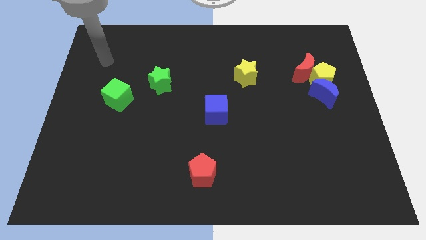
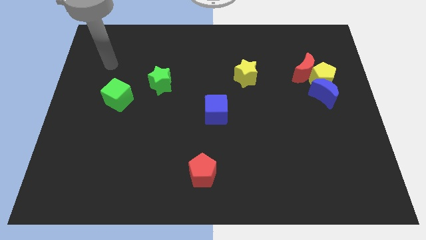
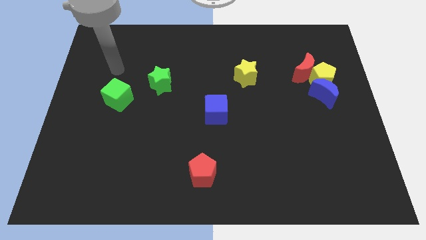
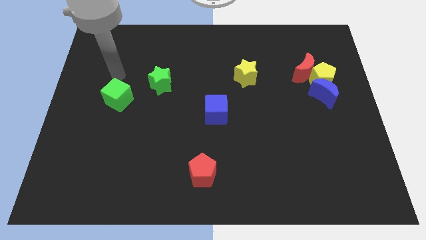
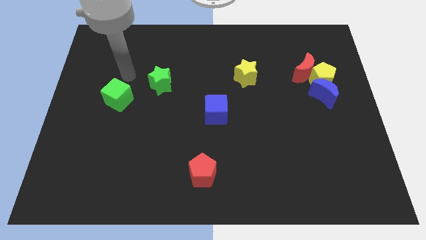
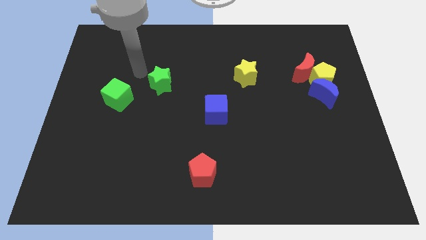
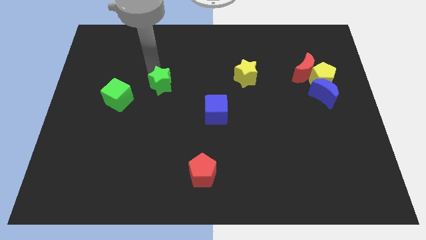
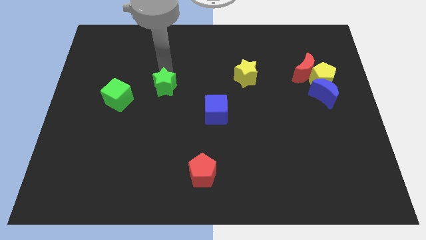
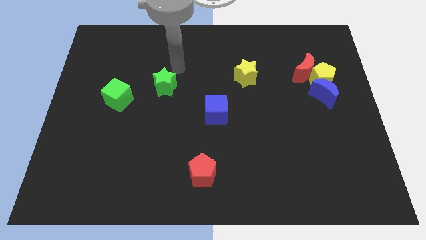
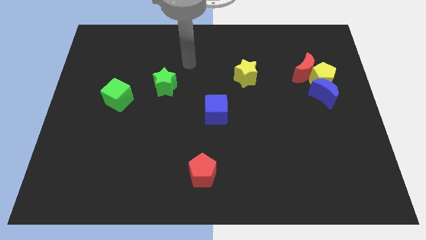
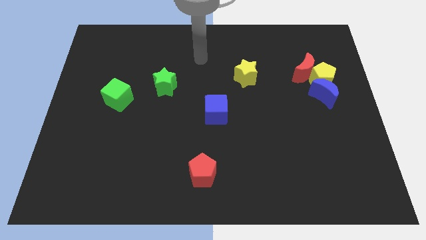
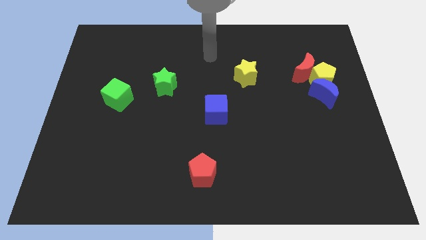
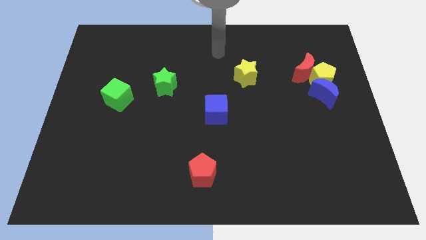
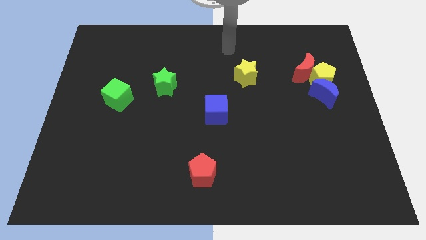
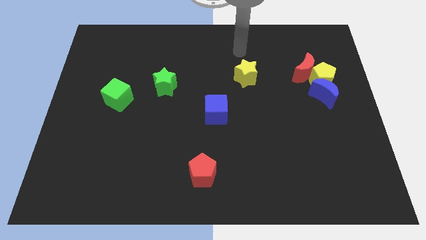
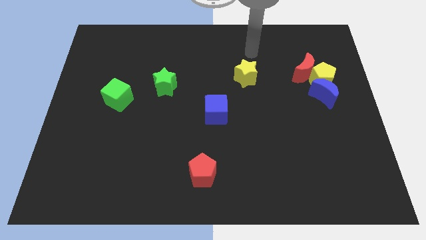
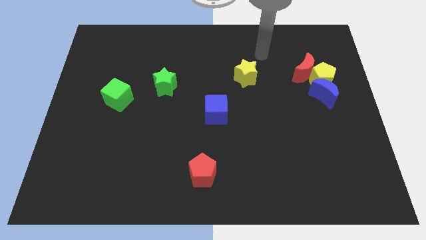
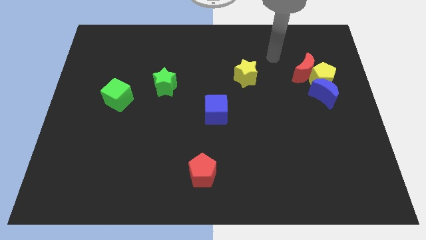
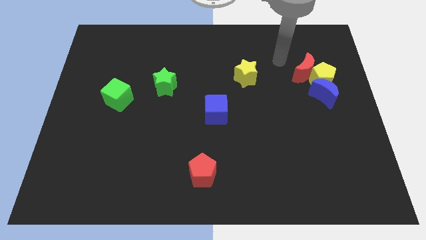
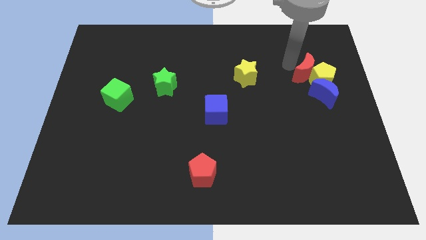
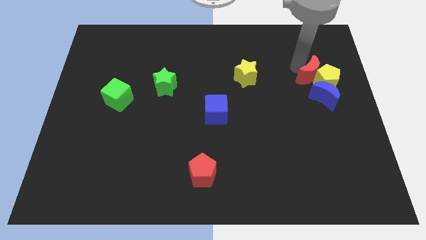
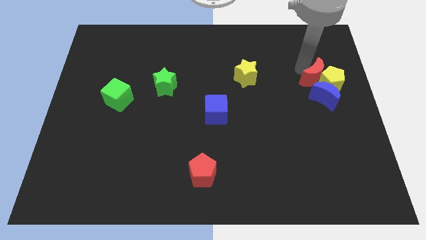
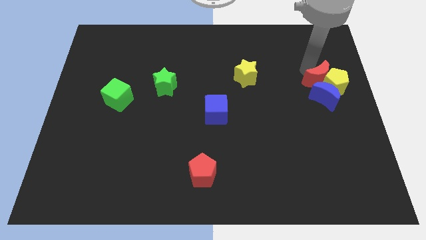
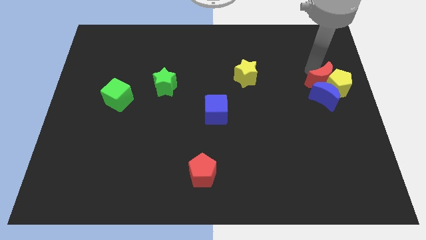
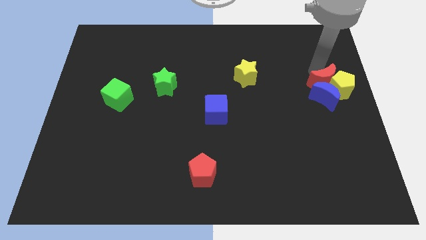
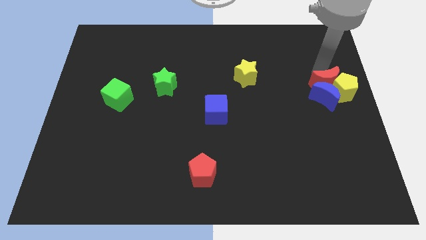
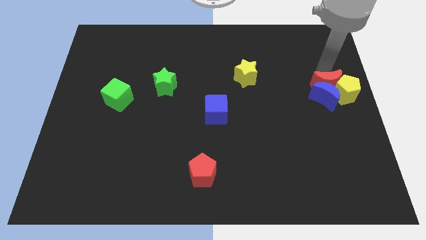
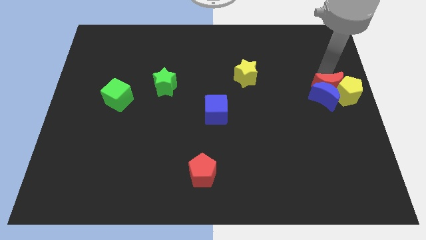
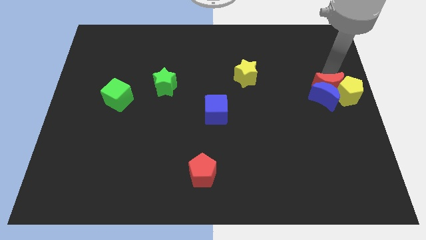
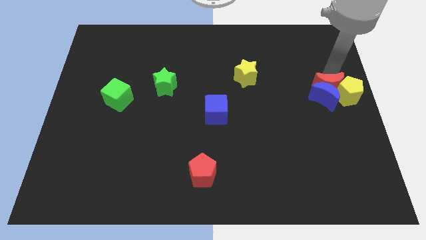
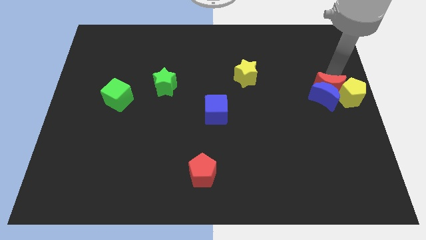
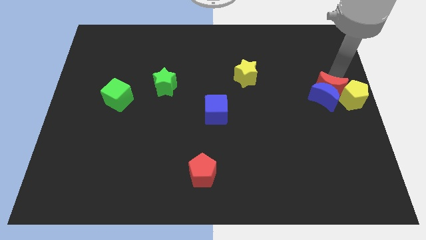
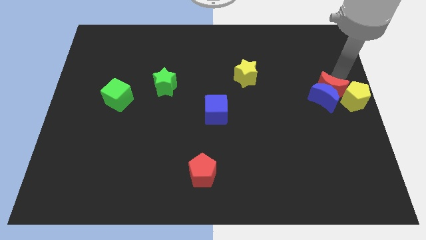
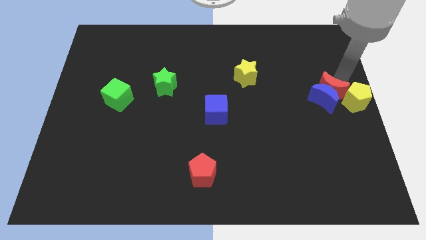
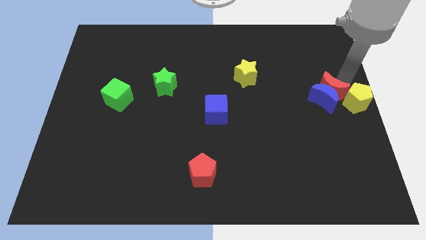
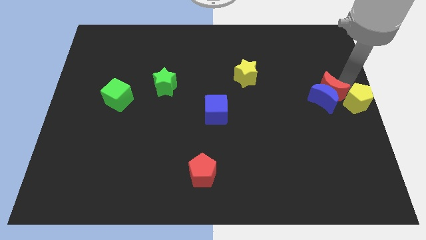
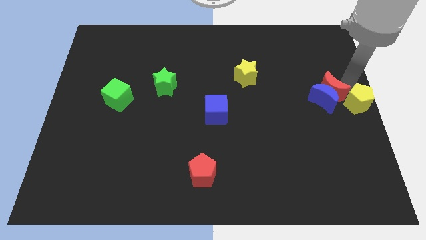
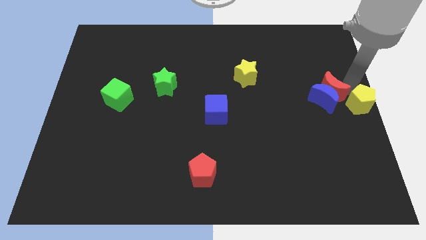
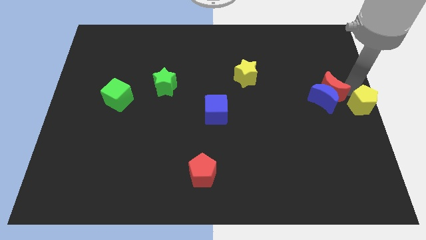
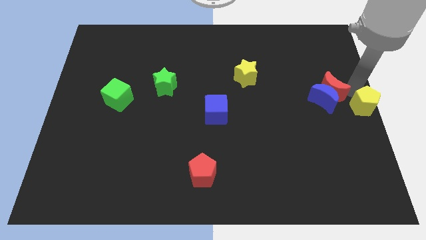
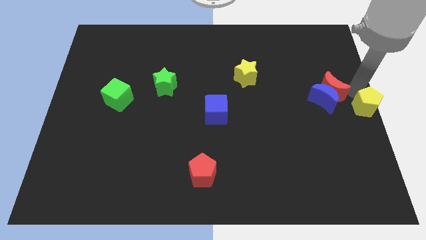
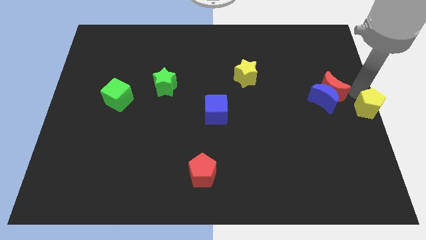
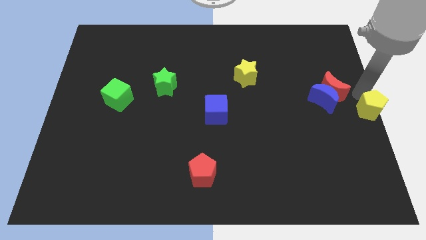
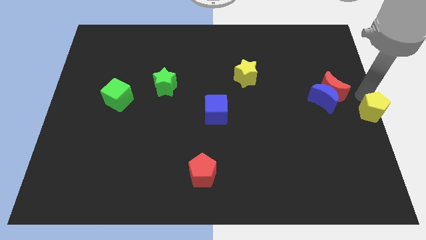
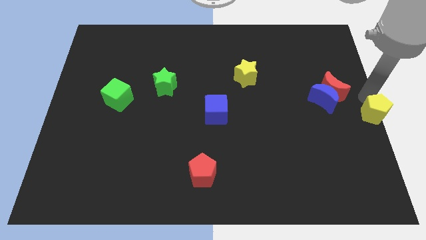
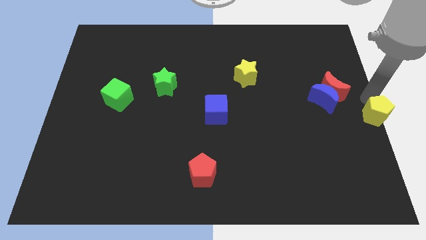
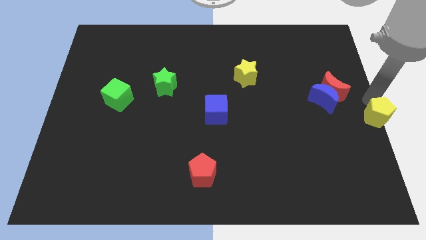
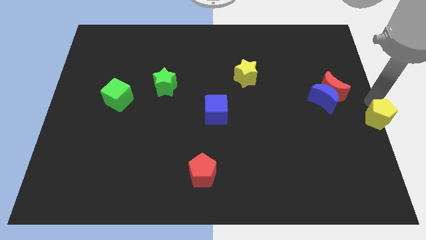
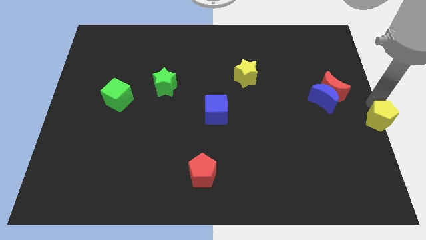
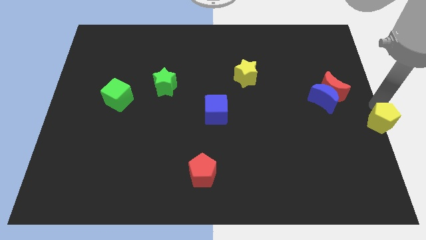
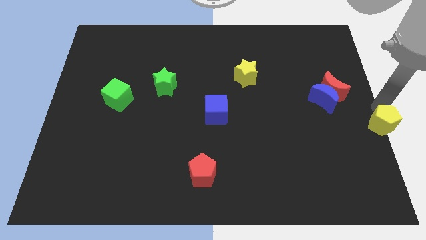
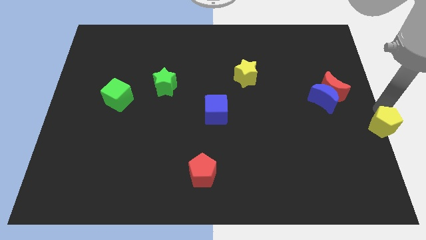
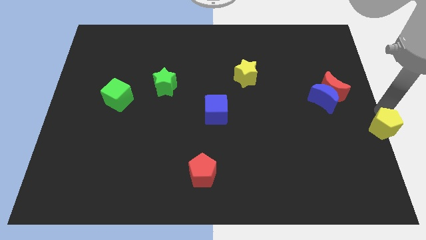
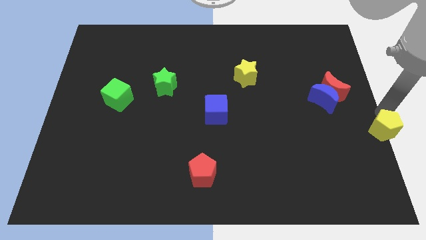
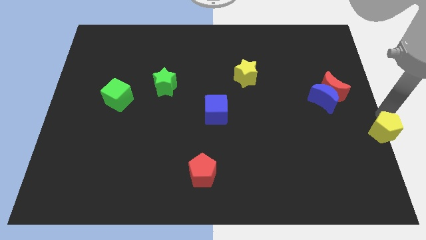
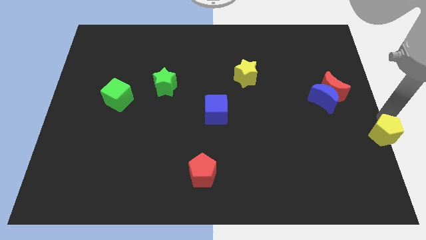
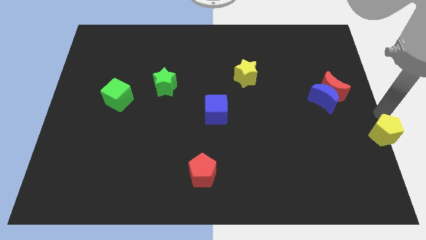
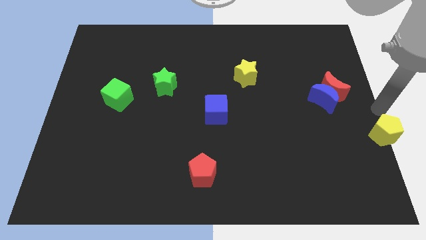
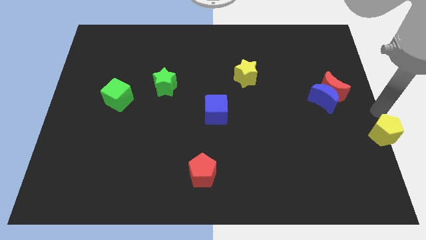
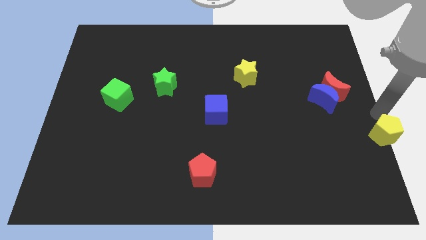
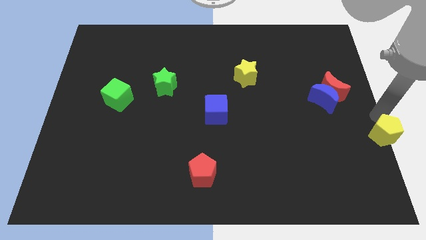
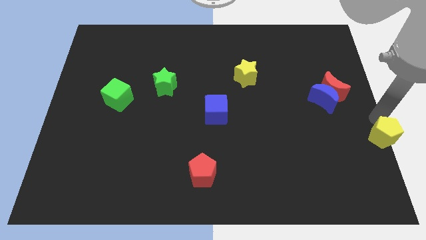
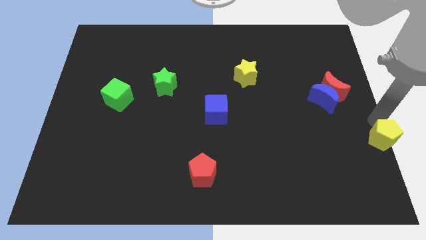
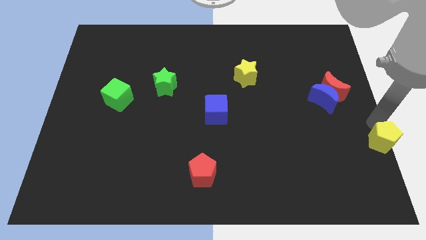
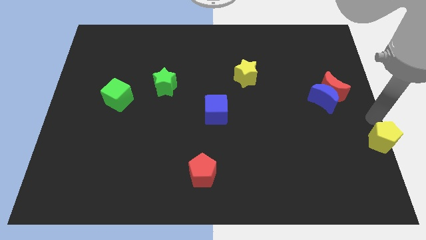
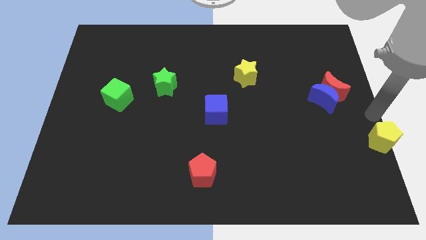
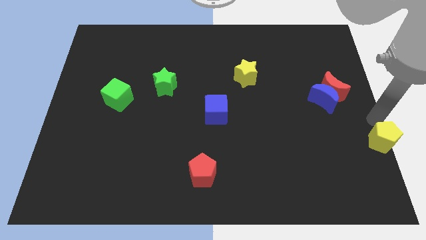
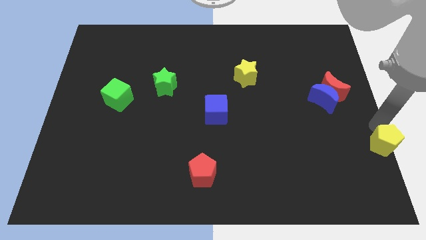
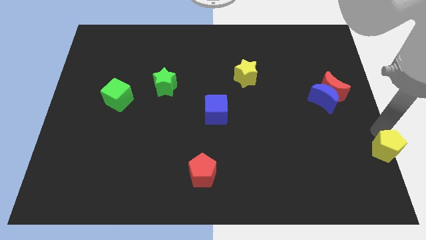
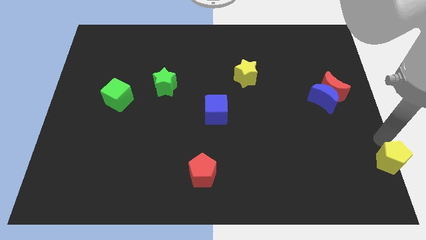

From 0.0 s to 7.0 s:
put the yellow pentagon to the lower right corner
